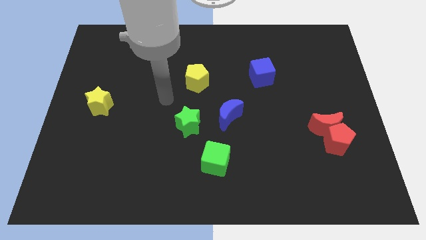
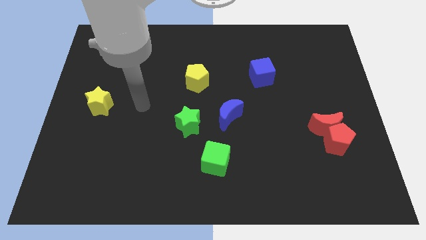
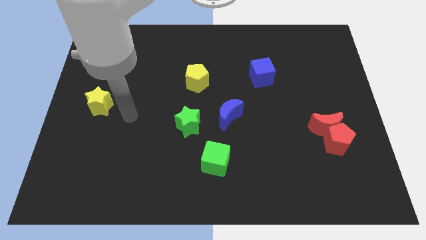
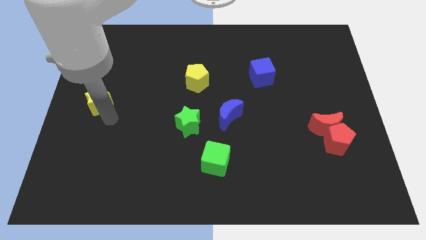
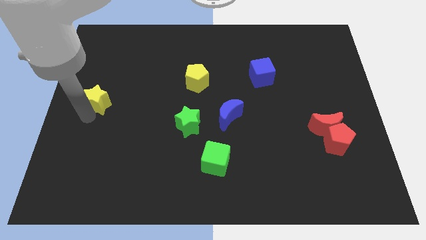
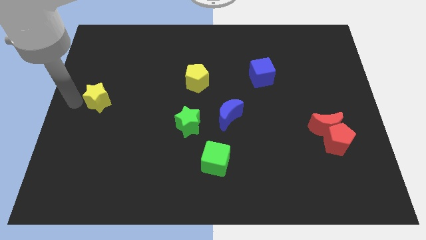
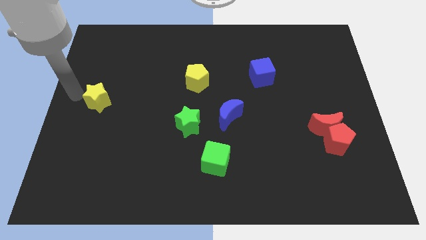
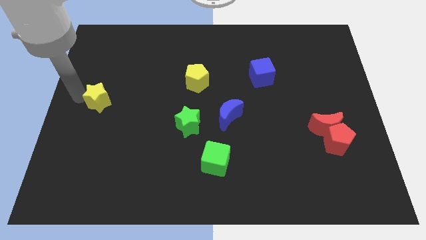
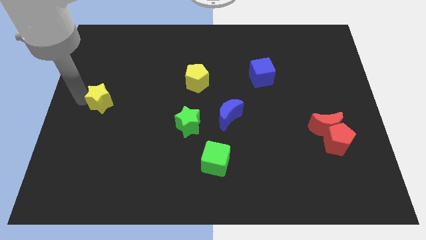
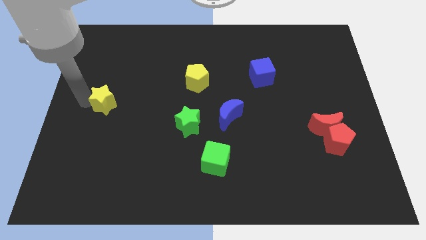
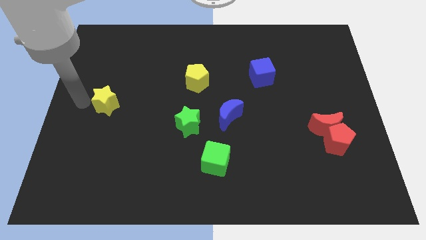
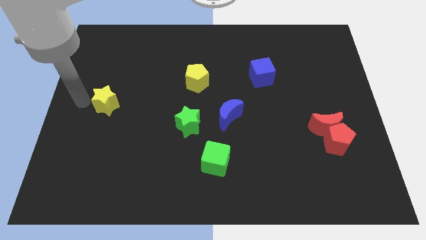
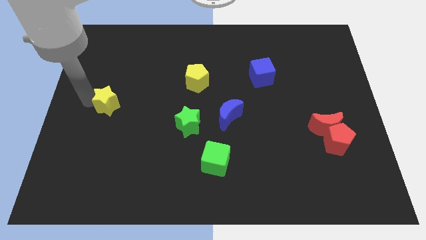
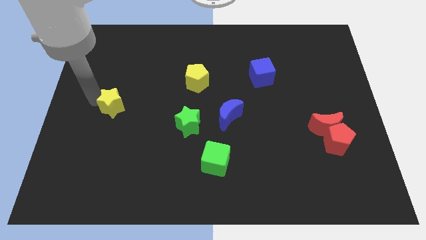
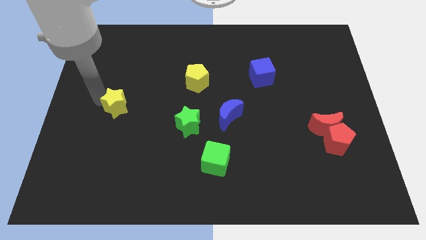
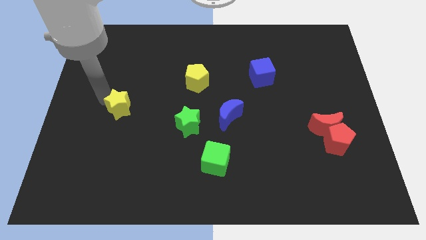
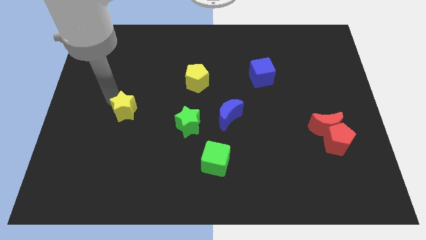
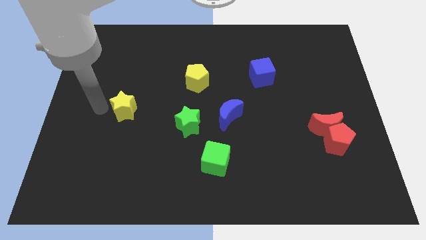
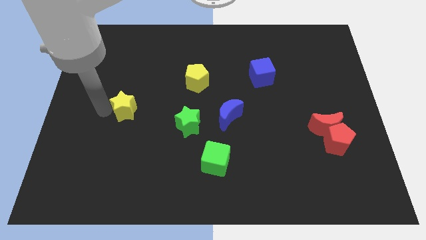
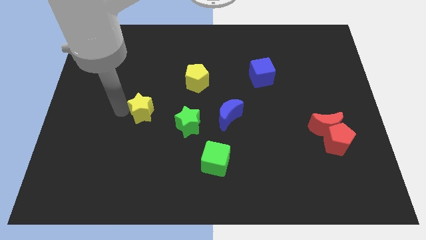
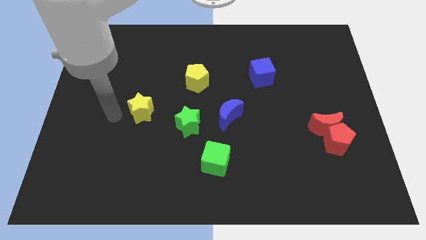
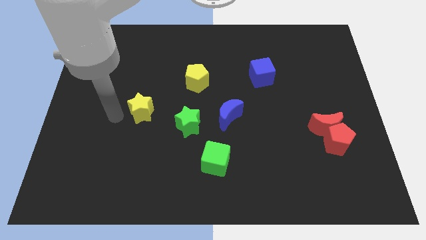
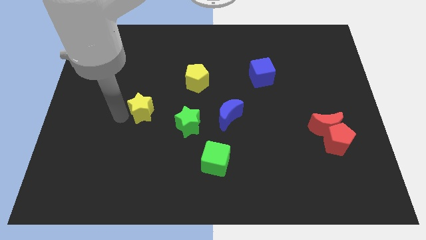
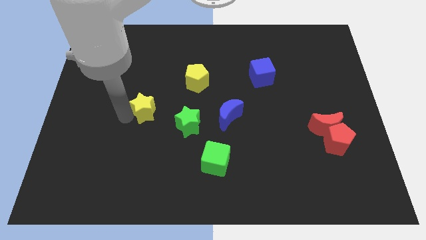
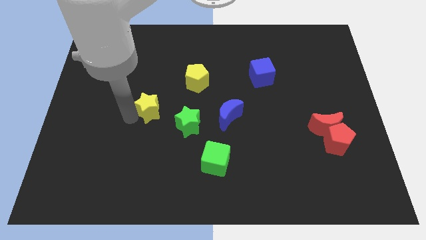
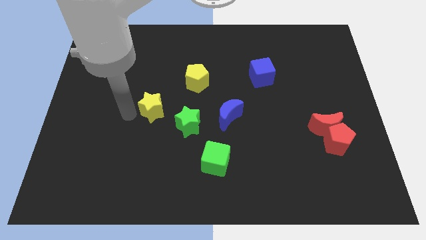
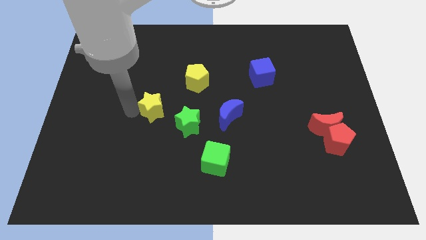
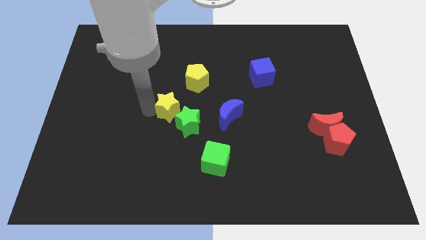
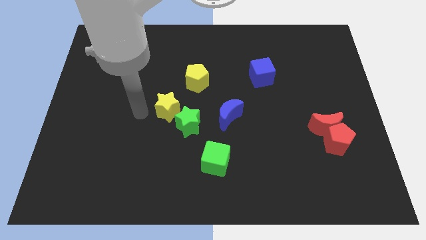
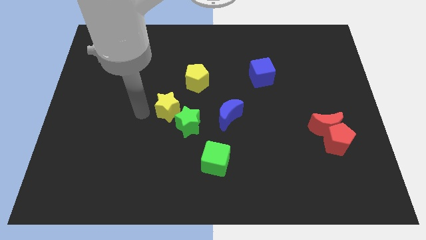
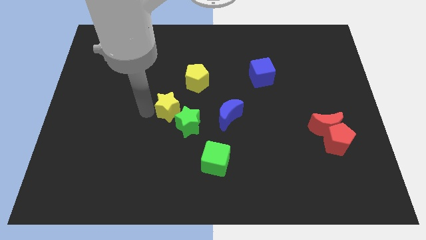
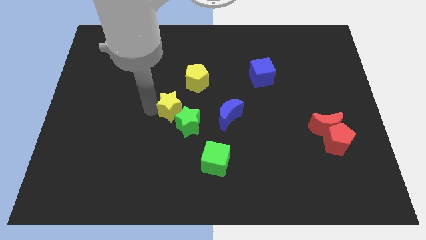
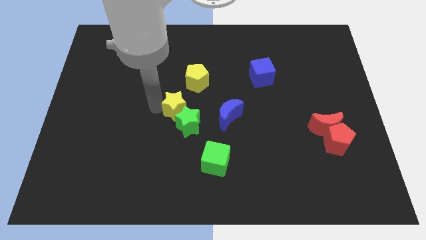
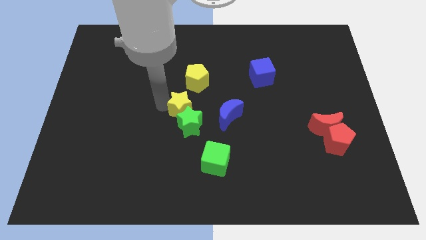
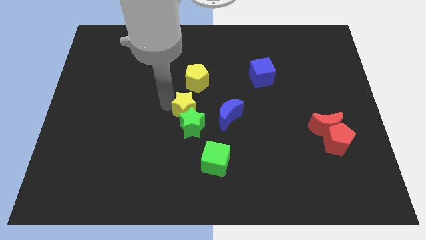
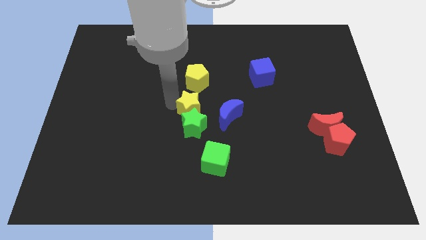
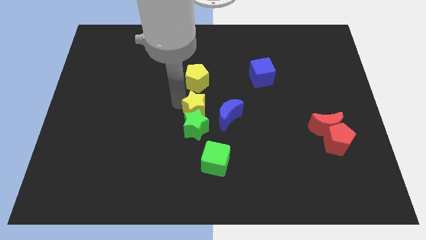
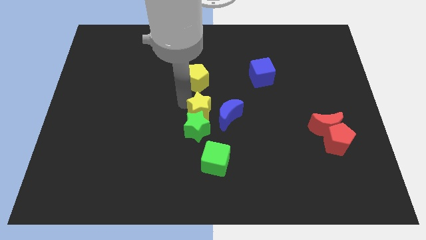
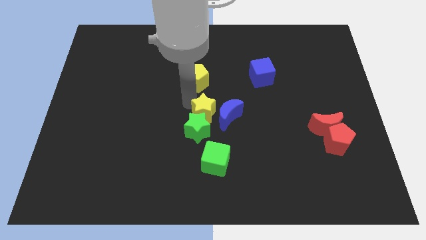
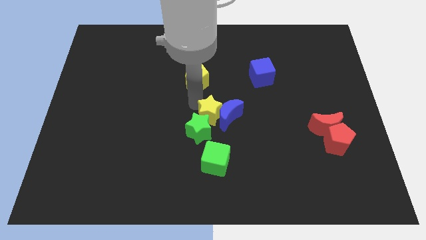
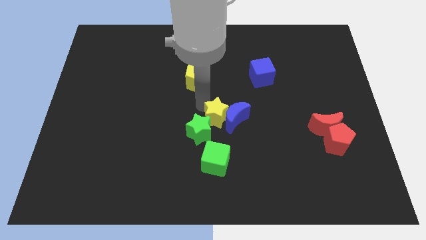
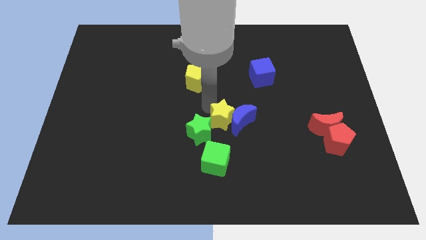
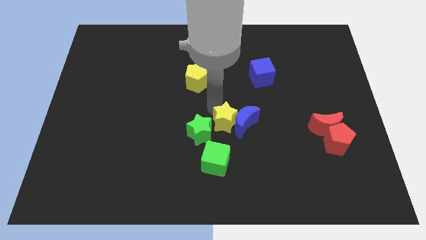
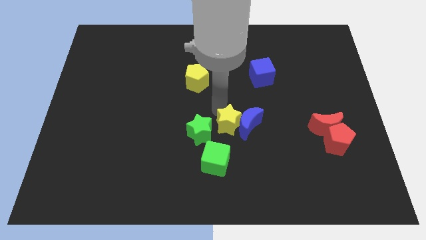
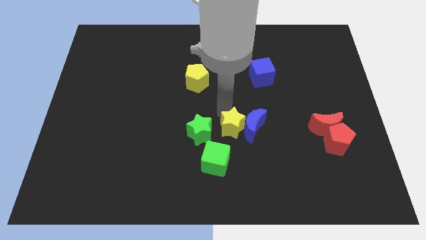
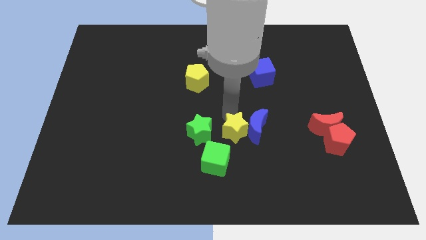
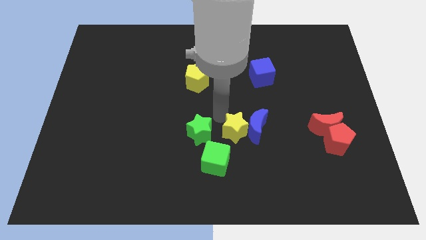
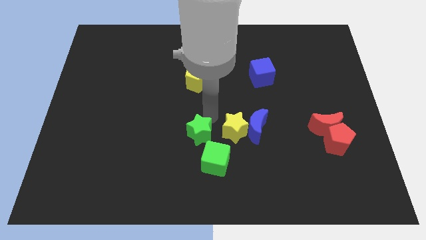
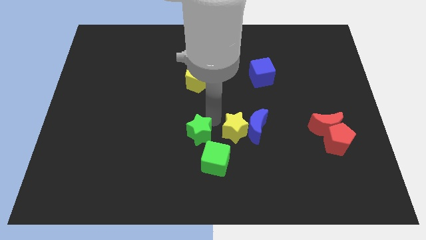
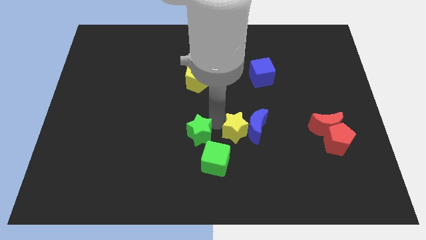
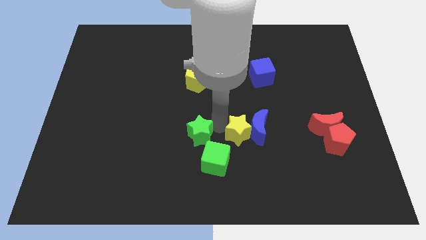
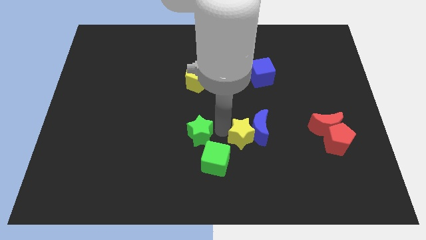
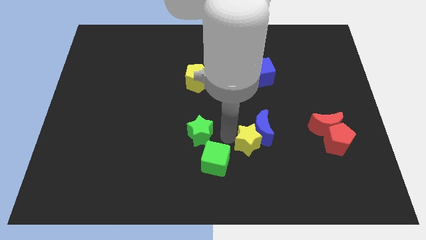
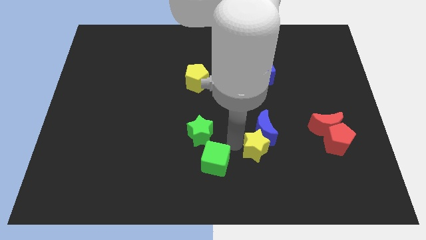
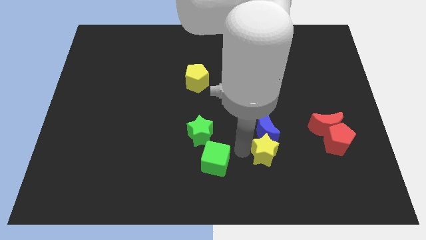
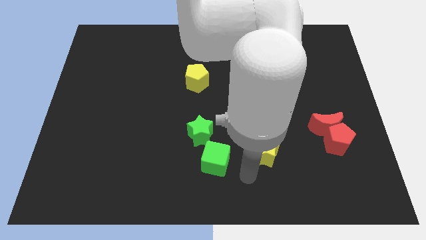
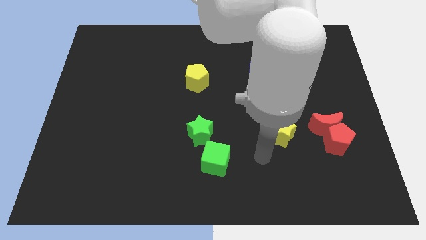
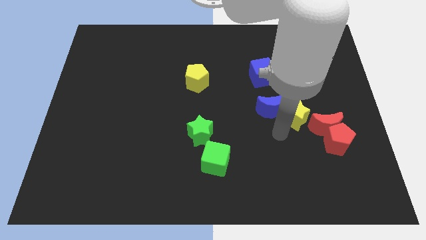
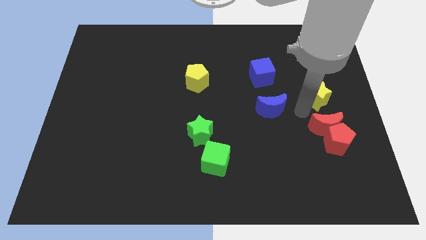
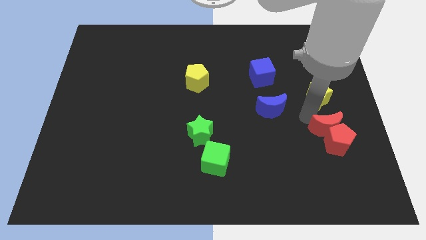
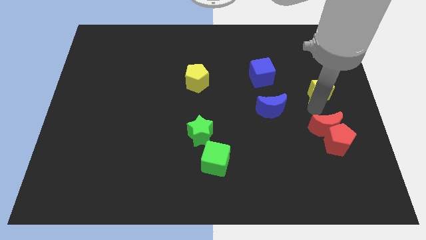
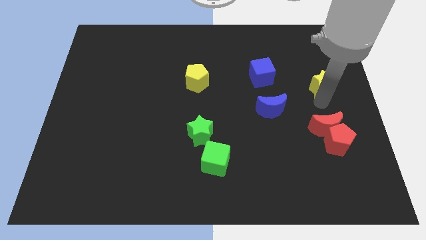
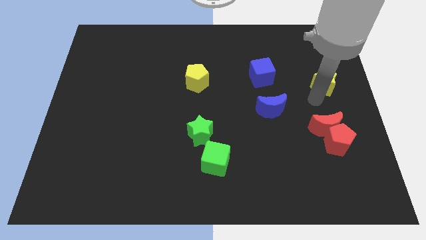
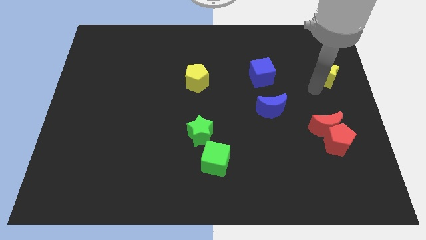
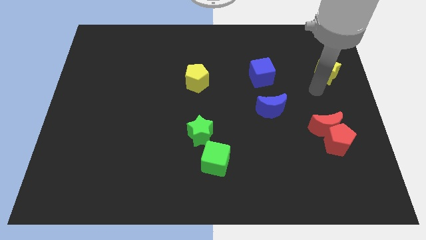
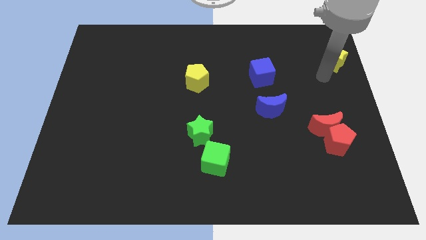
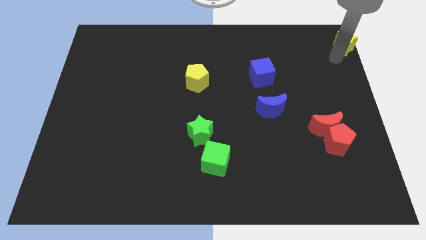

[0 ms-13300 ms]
slide the yellow star to the top right
